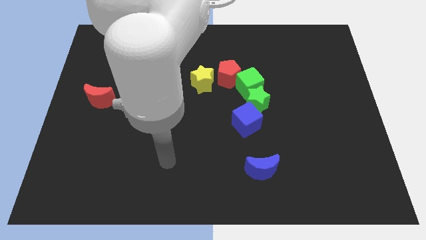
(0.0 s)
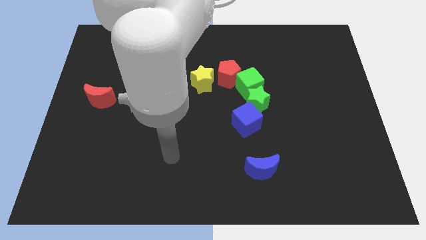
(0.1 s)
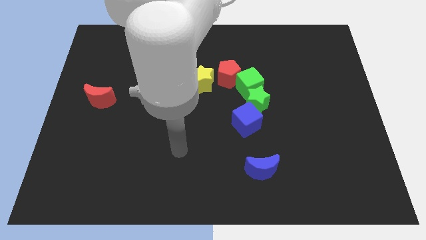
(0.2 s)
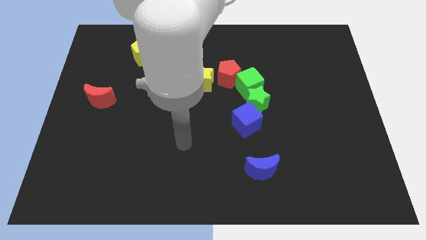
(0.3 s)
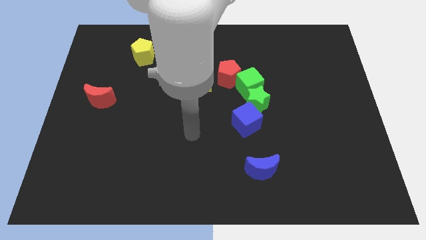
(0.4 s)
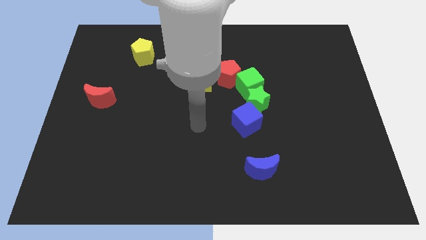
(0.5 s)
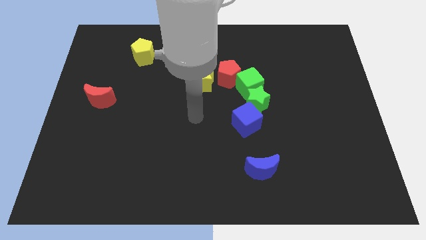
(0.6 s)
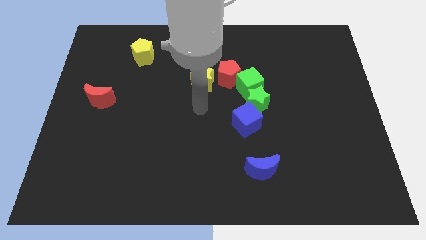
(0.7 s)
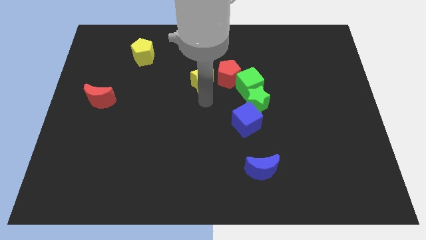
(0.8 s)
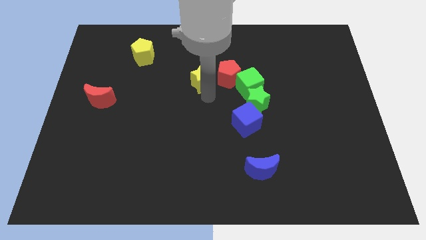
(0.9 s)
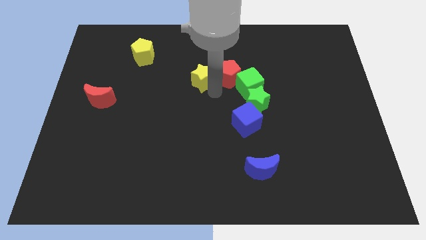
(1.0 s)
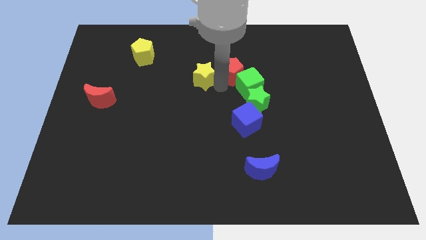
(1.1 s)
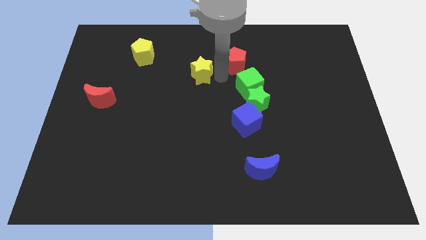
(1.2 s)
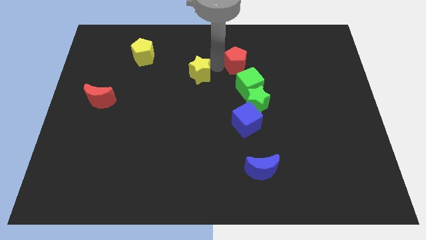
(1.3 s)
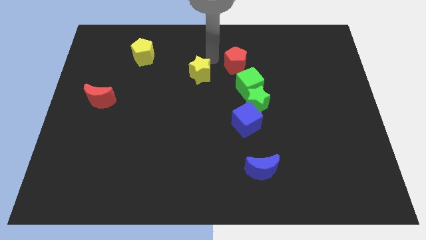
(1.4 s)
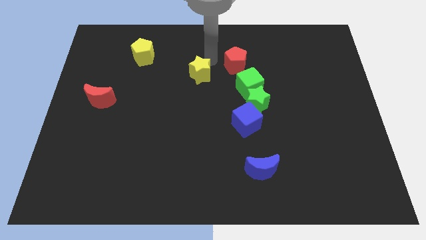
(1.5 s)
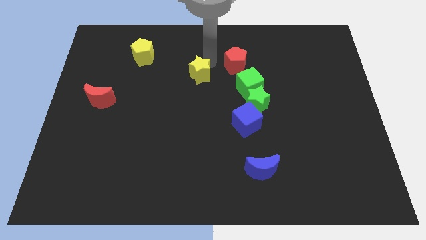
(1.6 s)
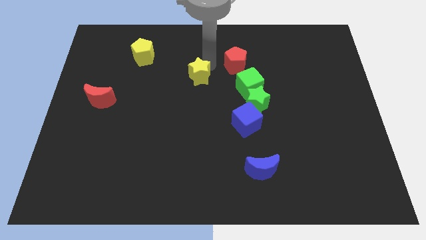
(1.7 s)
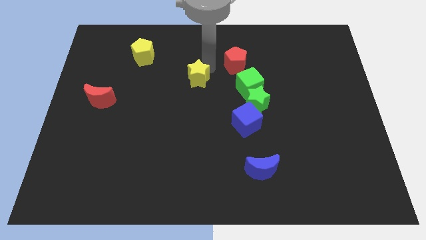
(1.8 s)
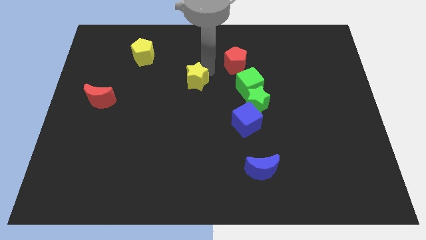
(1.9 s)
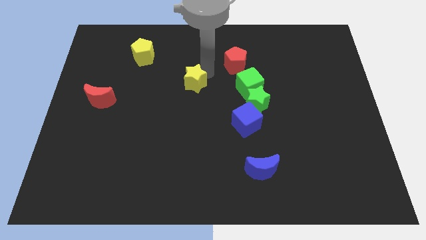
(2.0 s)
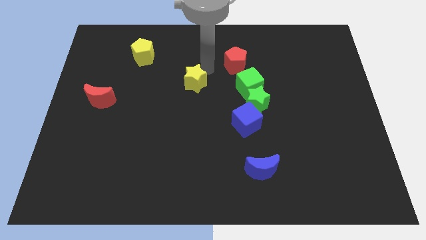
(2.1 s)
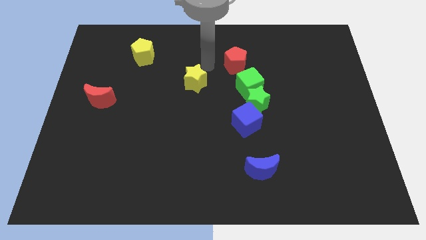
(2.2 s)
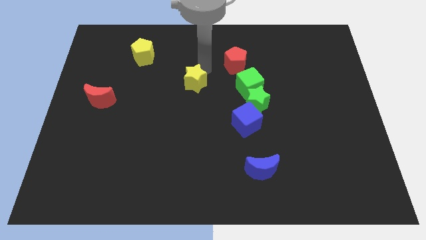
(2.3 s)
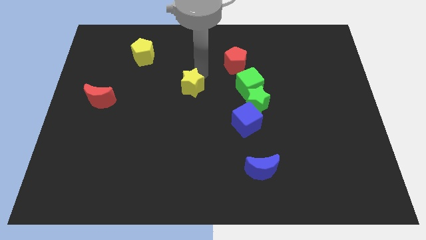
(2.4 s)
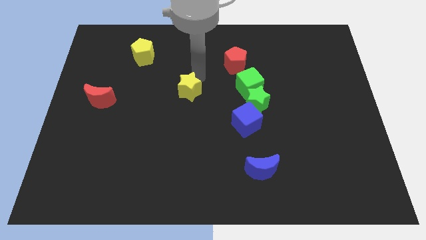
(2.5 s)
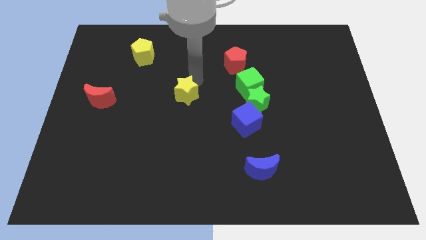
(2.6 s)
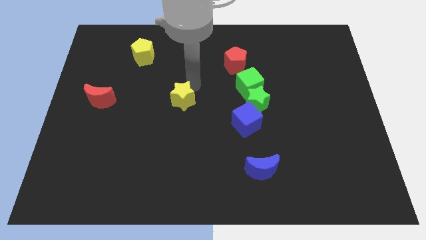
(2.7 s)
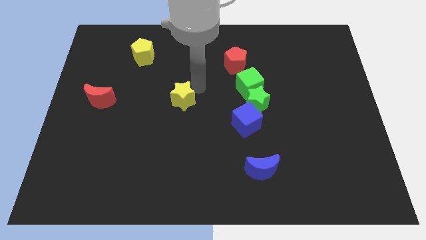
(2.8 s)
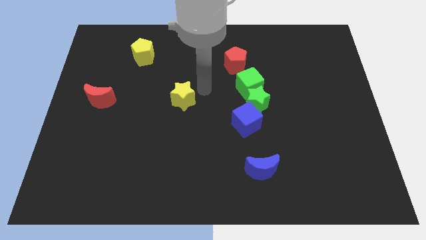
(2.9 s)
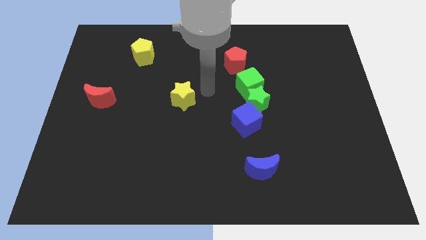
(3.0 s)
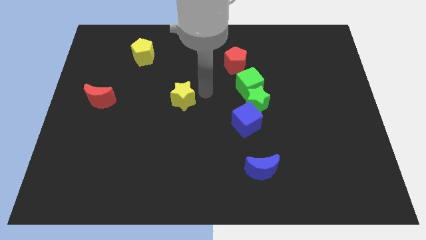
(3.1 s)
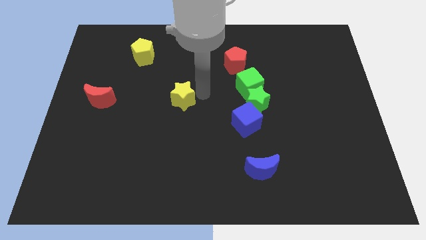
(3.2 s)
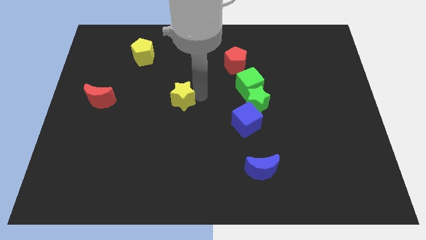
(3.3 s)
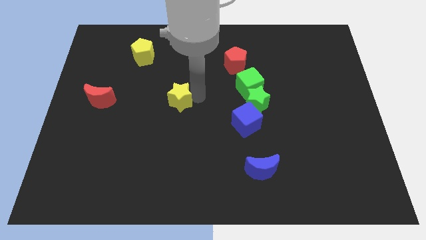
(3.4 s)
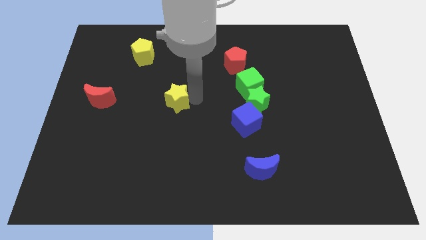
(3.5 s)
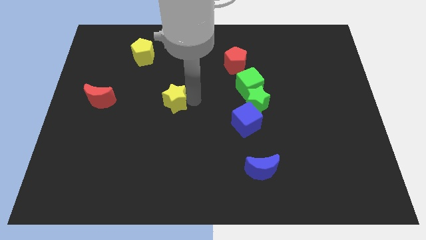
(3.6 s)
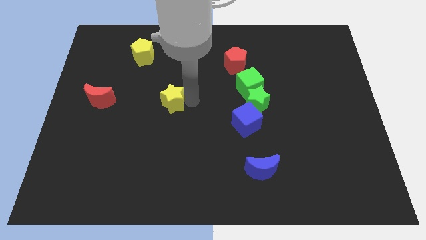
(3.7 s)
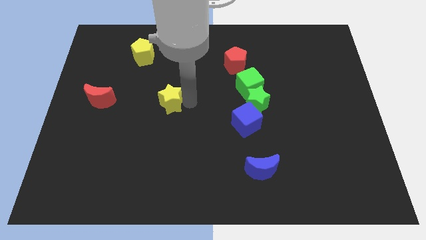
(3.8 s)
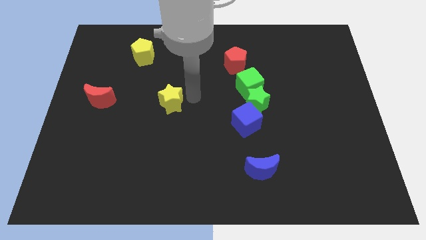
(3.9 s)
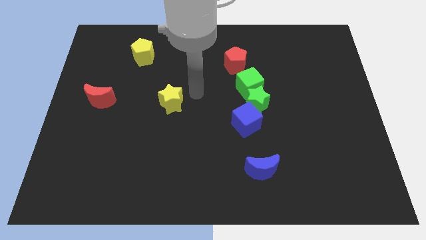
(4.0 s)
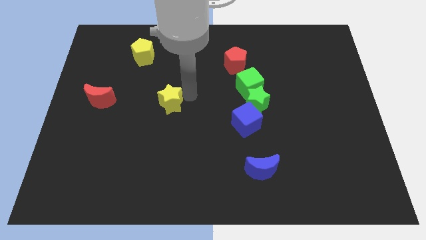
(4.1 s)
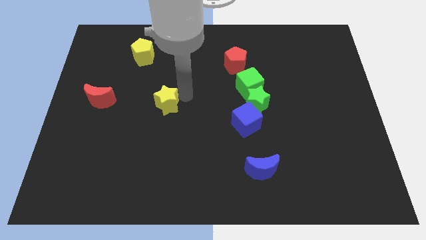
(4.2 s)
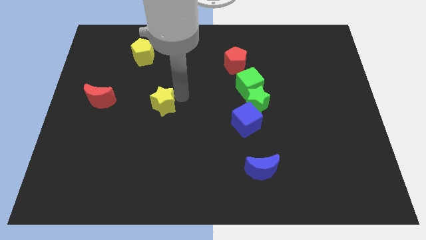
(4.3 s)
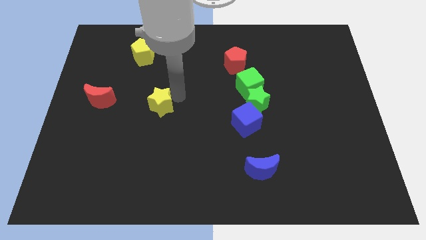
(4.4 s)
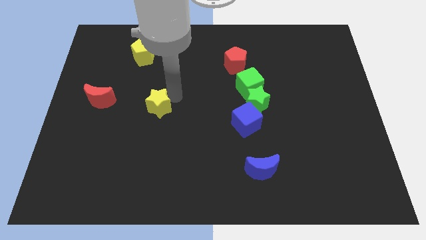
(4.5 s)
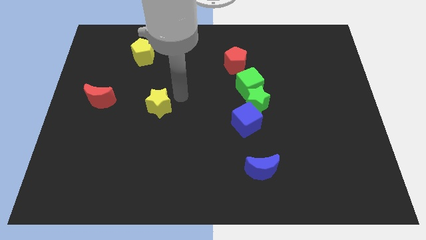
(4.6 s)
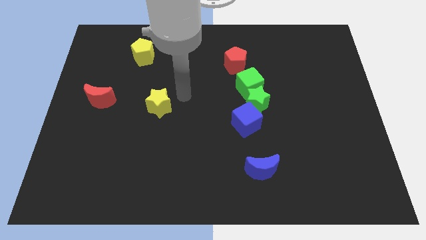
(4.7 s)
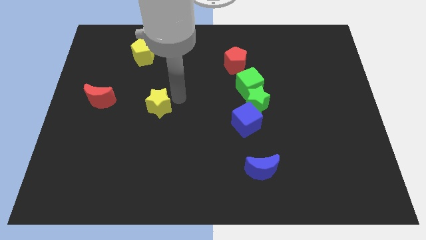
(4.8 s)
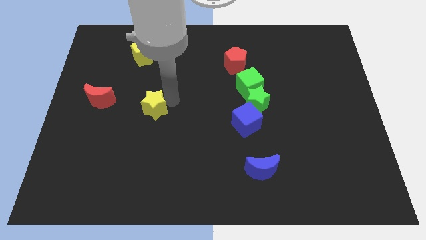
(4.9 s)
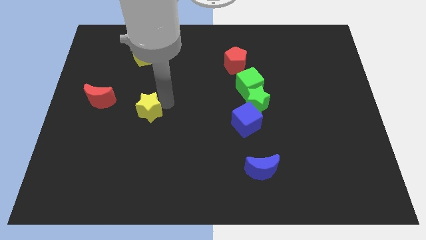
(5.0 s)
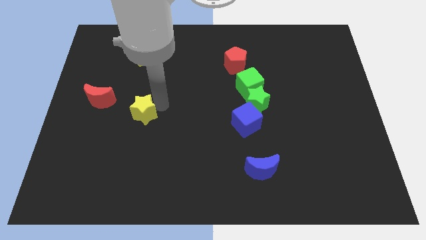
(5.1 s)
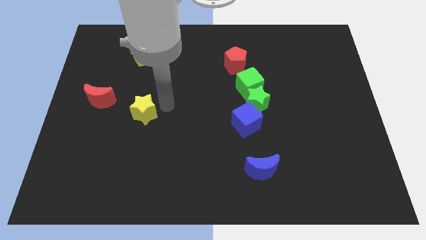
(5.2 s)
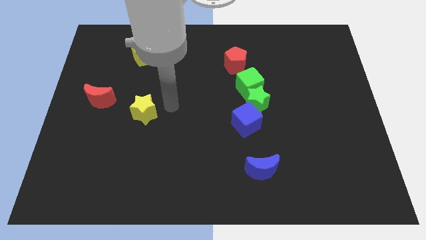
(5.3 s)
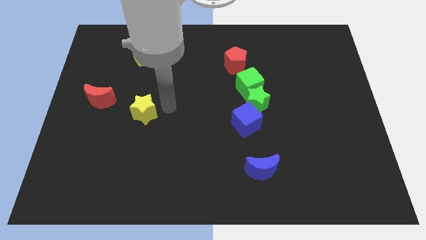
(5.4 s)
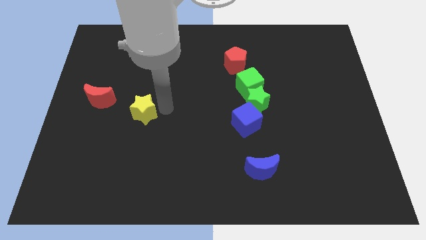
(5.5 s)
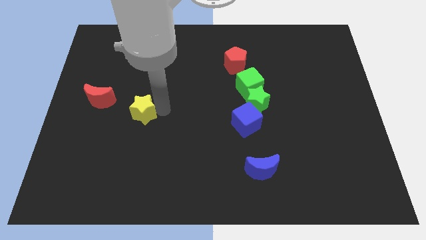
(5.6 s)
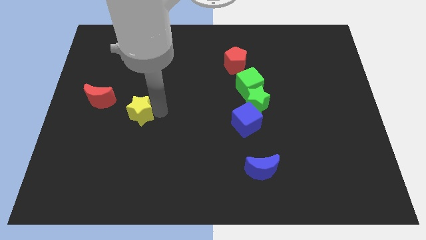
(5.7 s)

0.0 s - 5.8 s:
put the yellow star diagonally down and to the right of the red moon

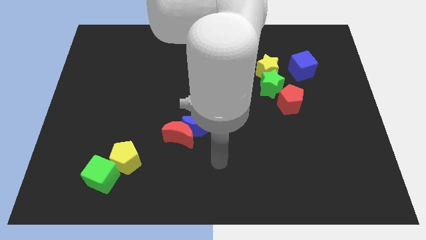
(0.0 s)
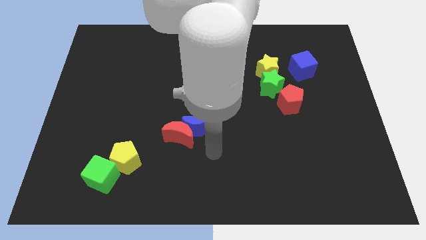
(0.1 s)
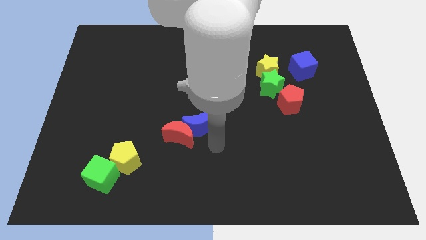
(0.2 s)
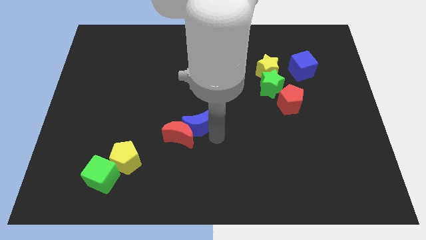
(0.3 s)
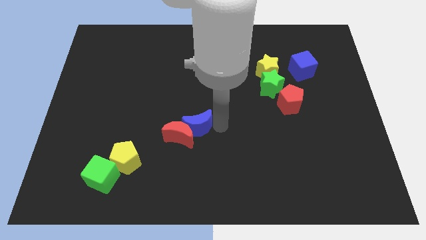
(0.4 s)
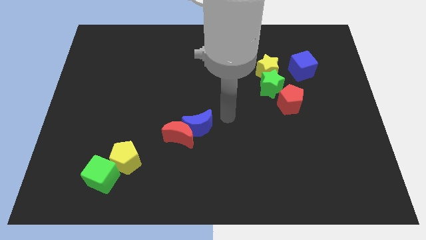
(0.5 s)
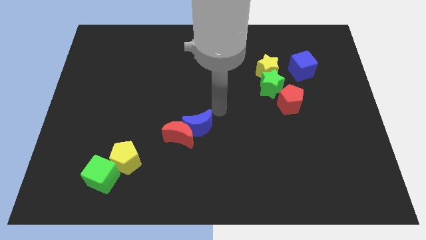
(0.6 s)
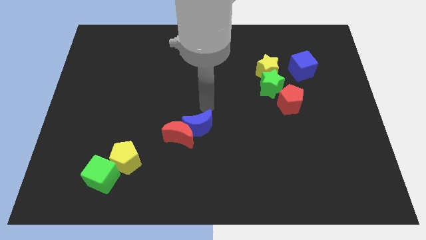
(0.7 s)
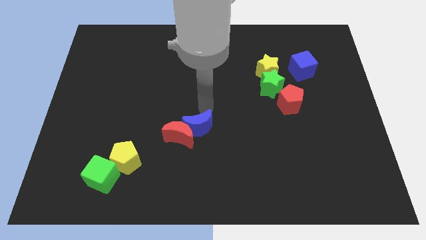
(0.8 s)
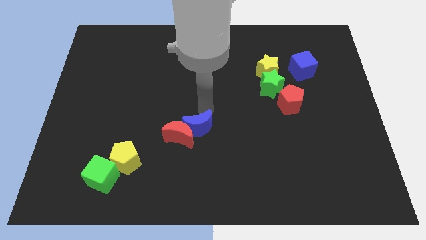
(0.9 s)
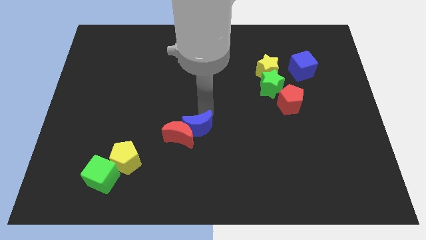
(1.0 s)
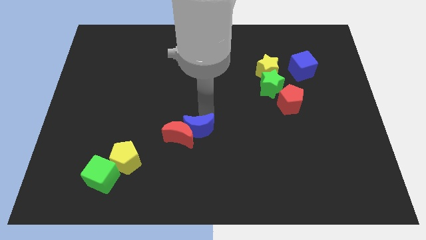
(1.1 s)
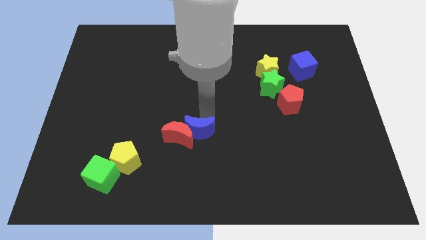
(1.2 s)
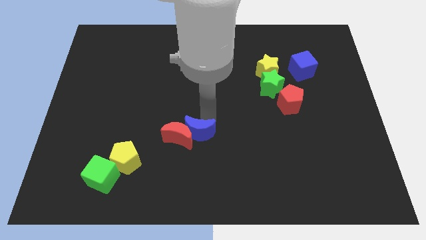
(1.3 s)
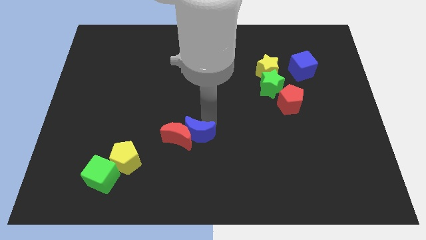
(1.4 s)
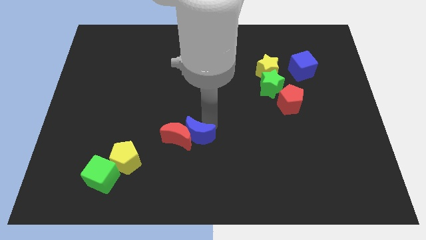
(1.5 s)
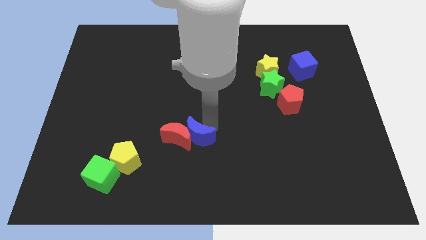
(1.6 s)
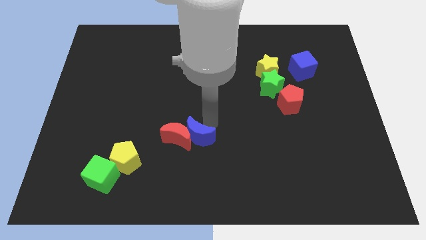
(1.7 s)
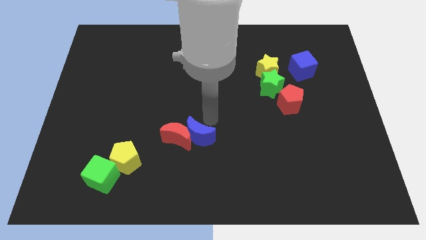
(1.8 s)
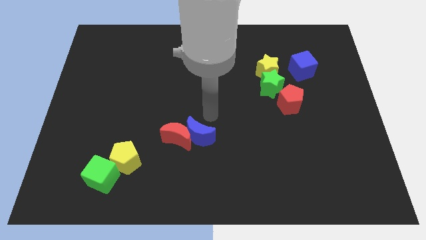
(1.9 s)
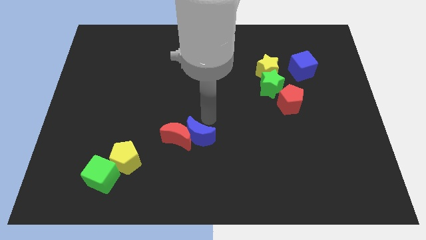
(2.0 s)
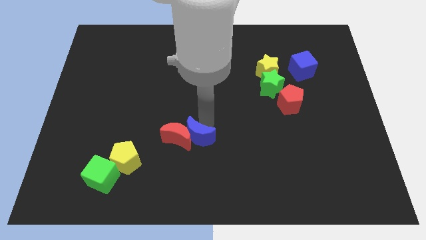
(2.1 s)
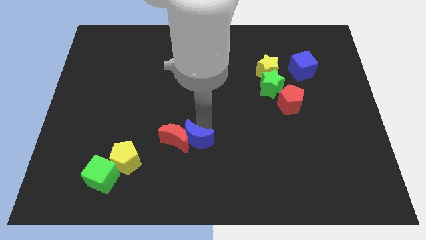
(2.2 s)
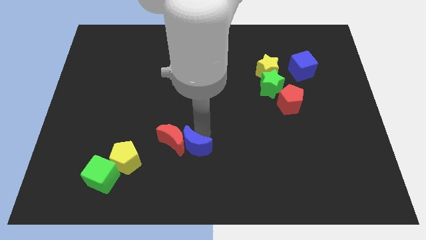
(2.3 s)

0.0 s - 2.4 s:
slide the blue moon right of the yellow pentagon
